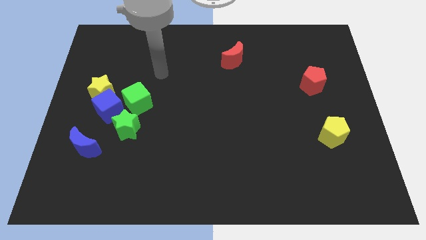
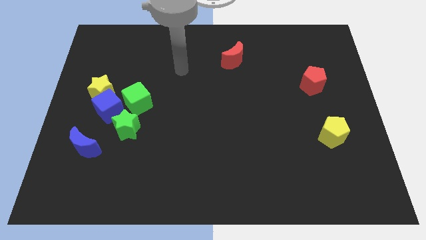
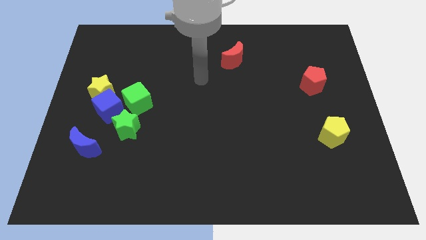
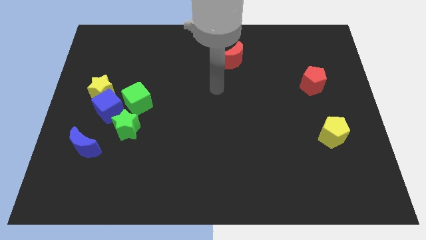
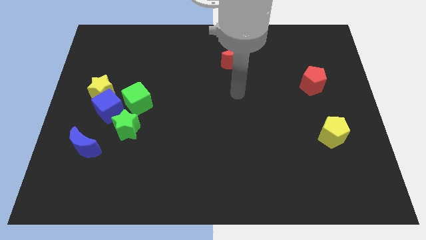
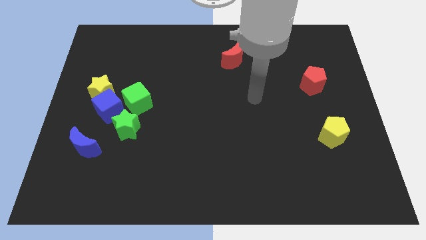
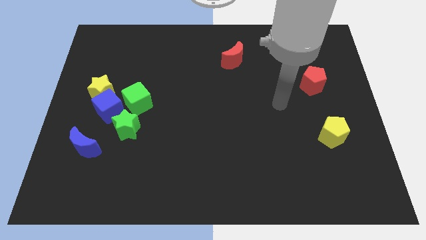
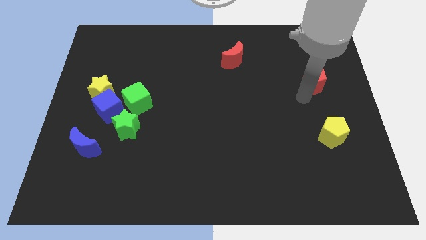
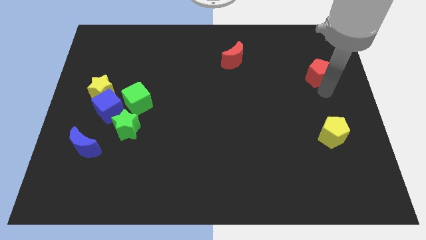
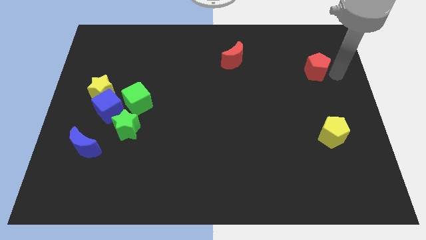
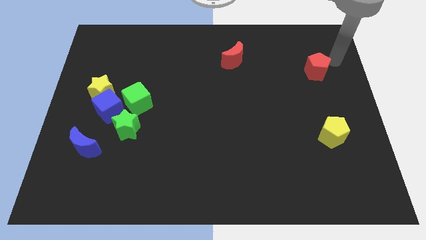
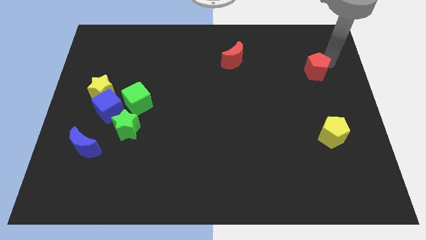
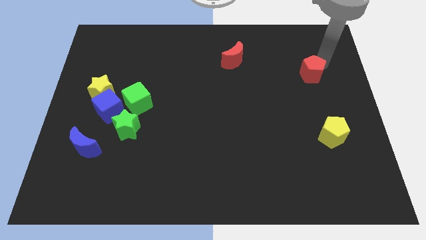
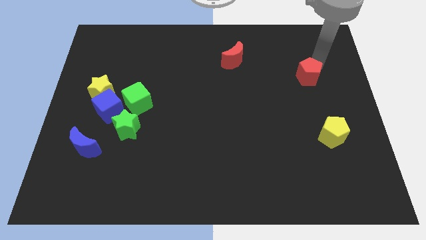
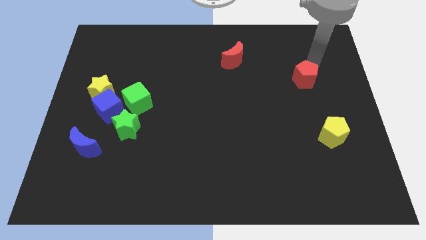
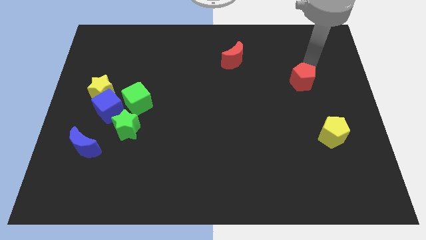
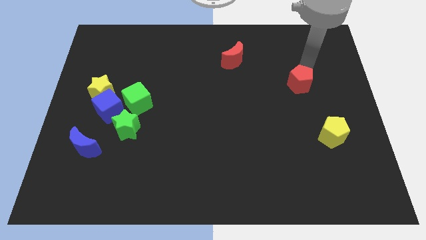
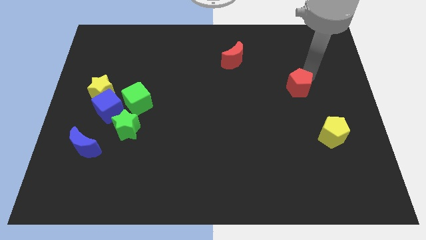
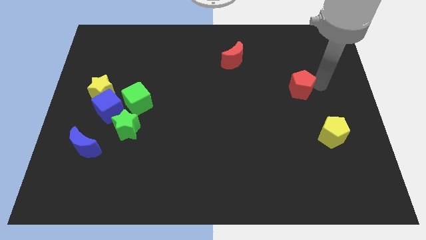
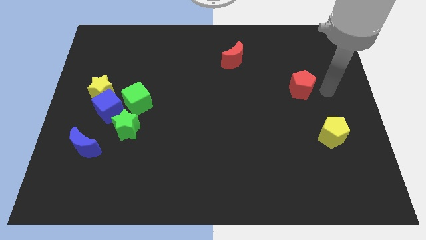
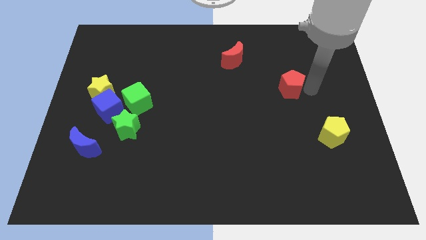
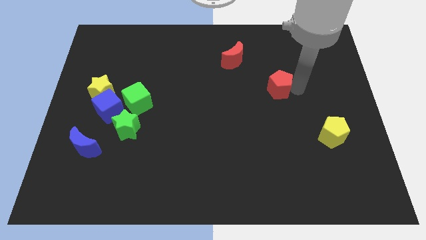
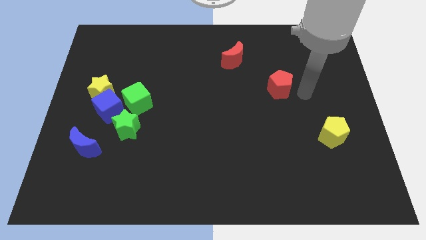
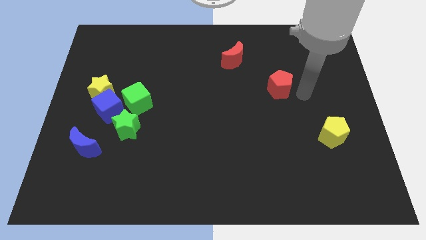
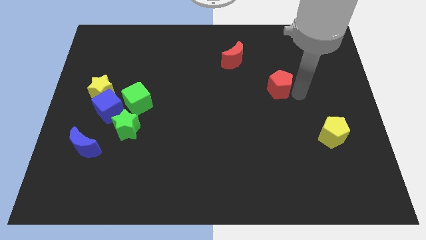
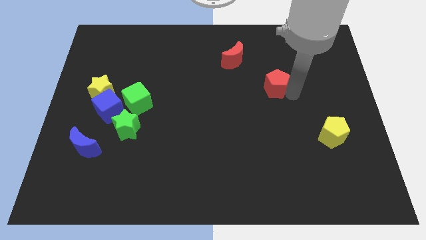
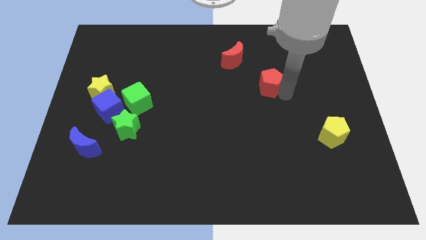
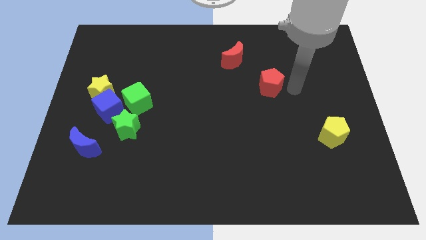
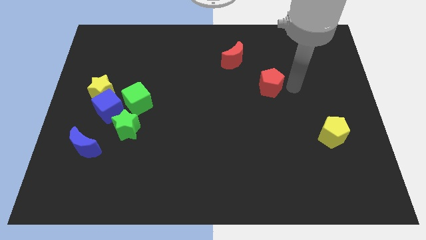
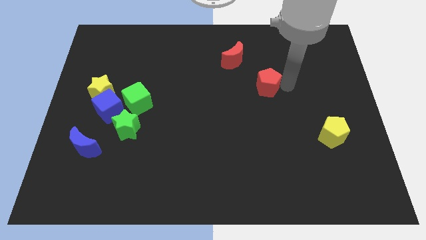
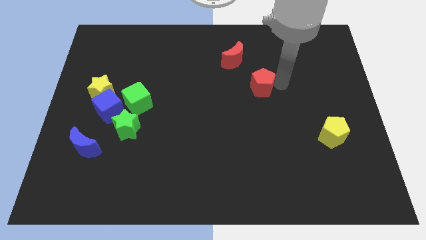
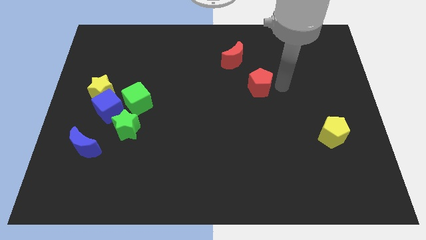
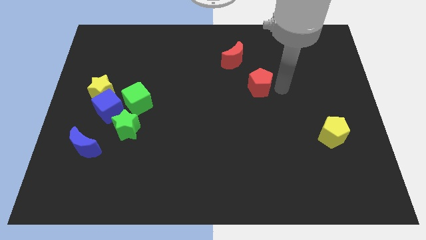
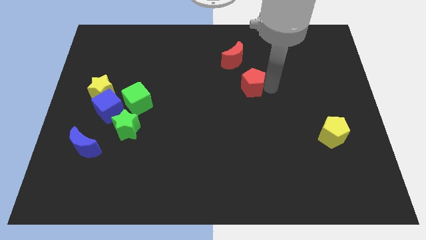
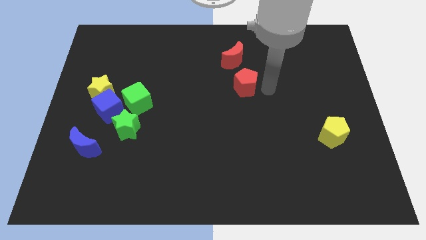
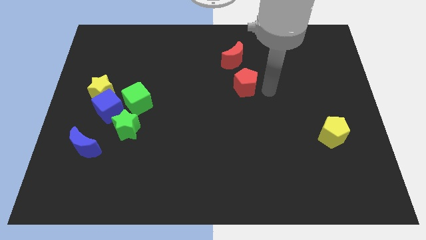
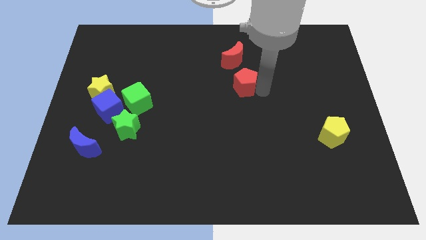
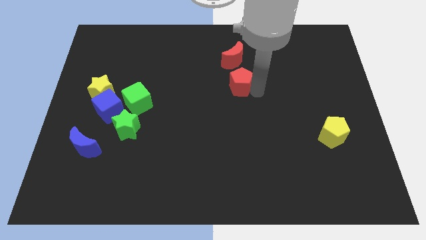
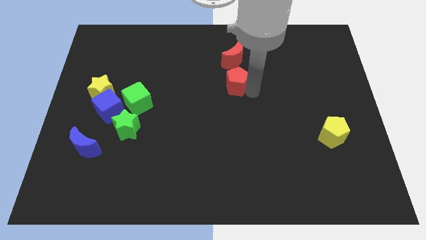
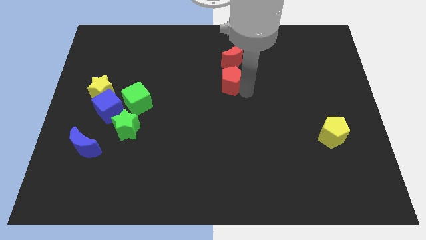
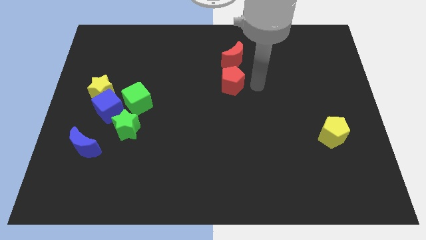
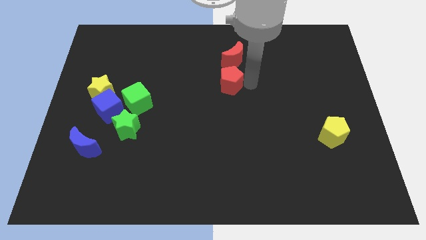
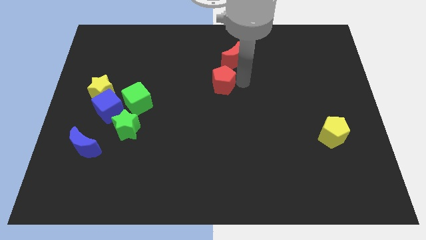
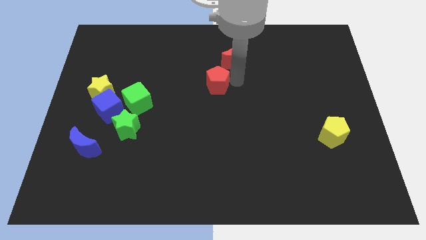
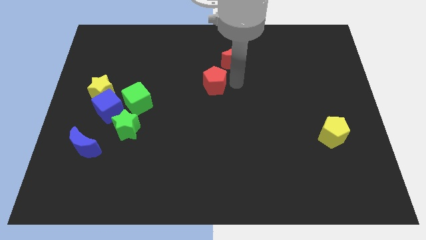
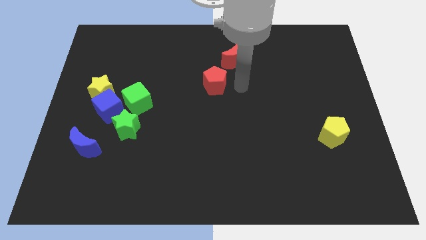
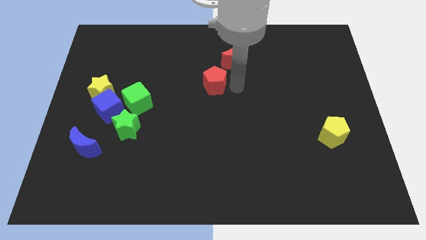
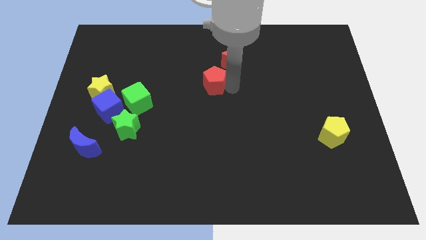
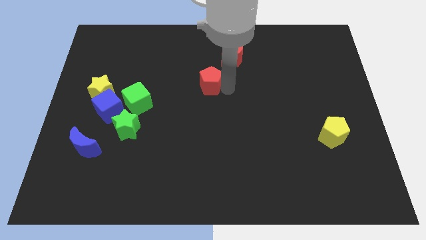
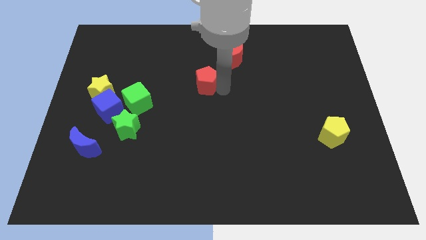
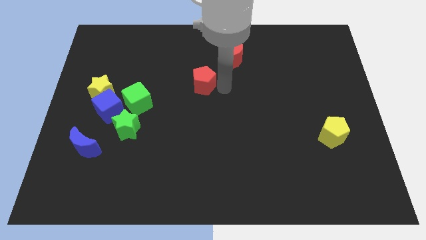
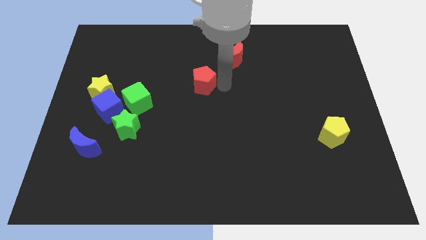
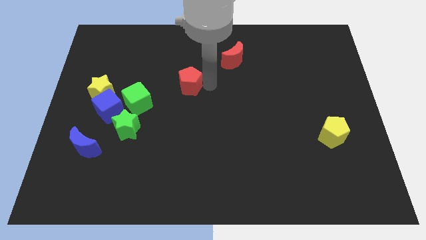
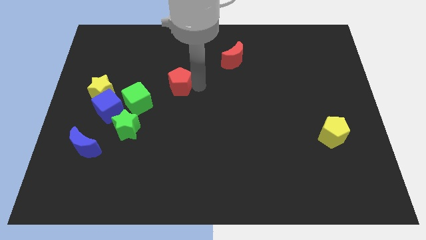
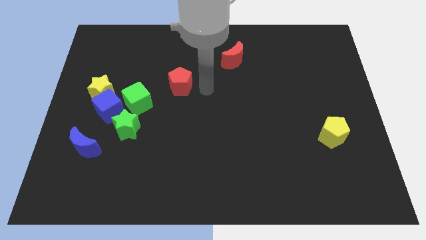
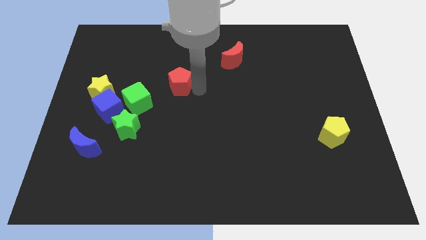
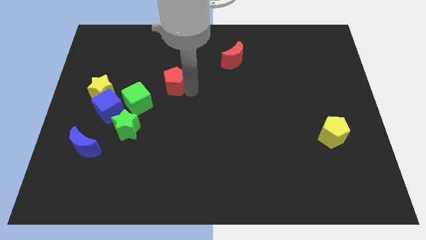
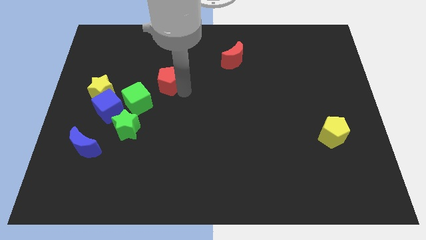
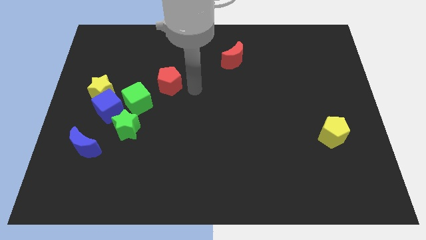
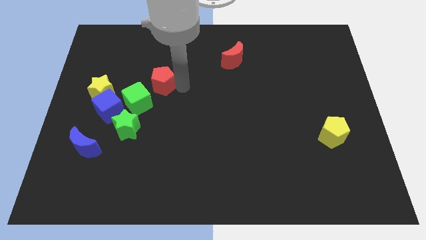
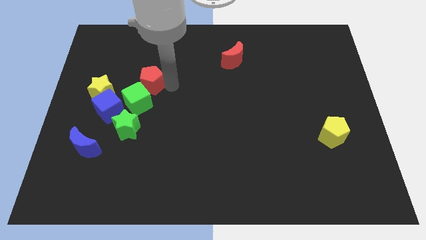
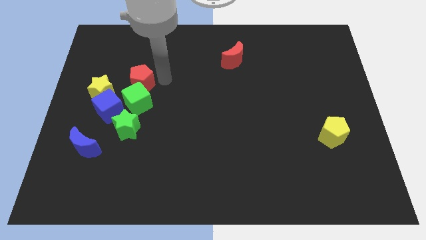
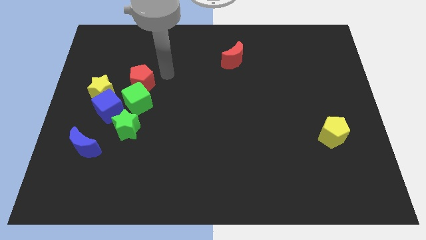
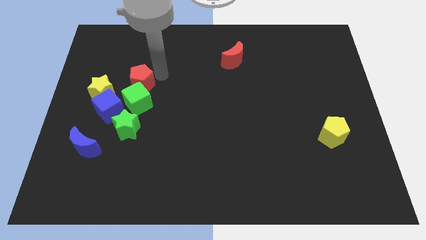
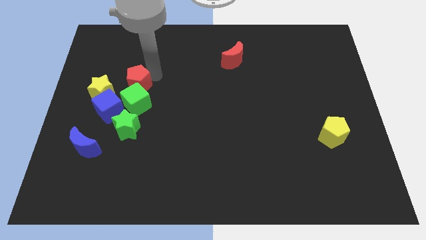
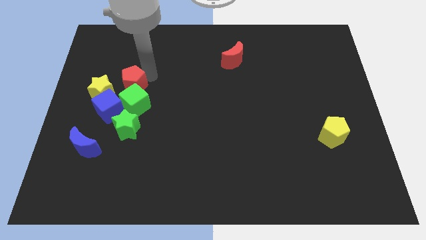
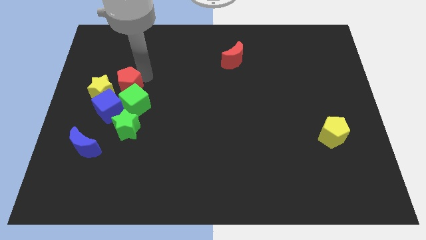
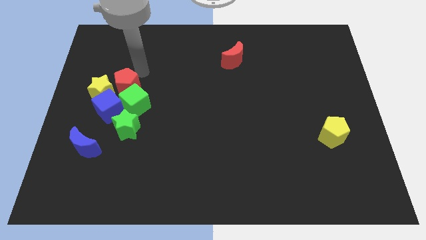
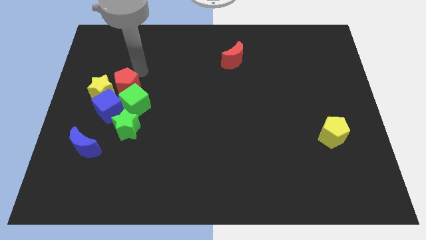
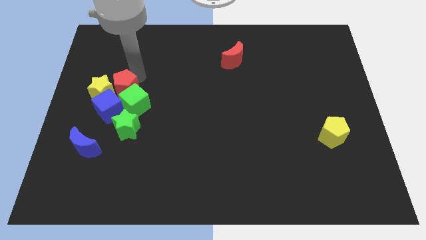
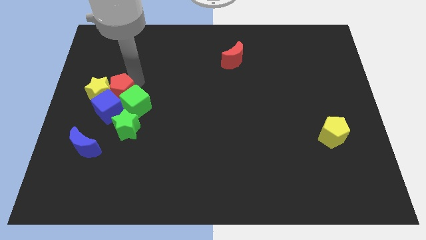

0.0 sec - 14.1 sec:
put the red pentagon towards the blue cube

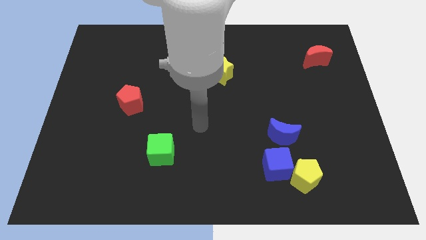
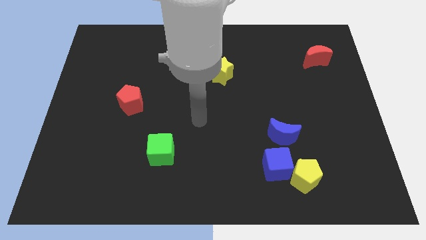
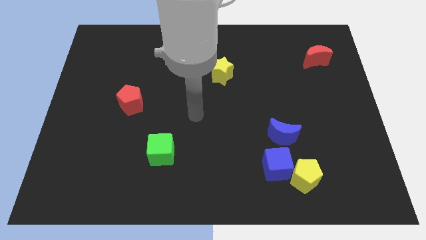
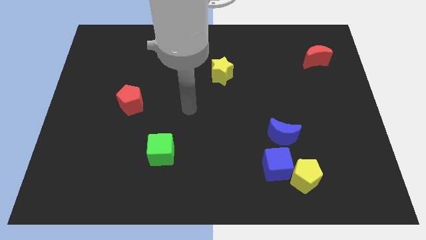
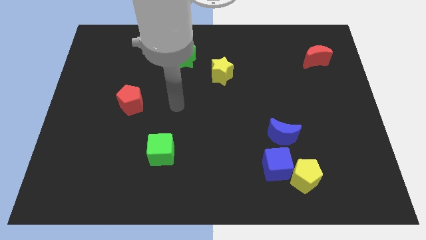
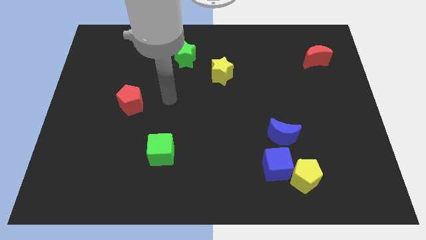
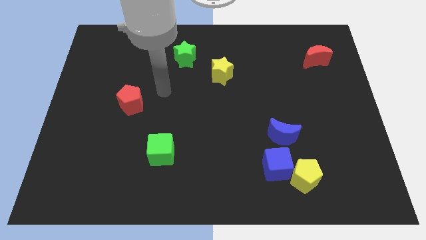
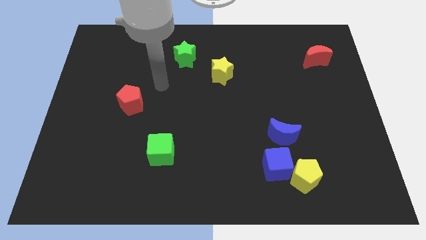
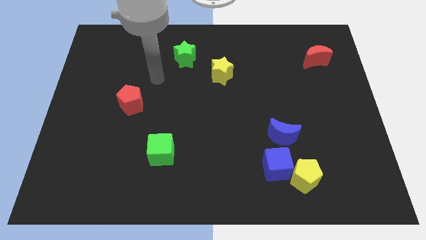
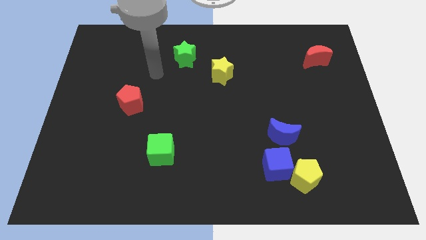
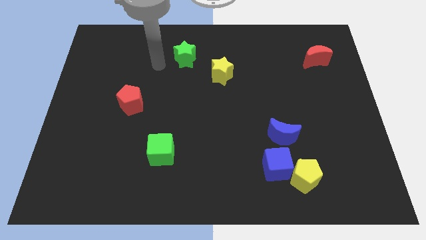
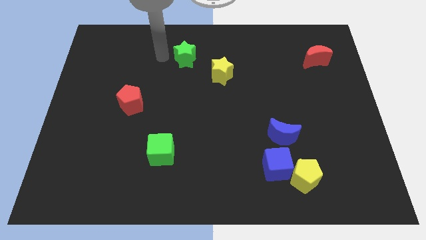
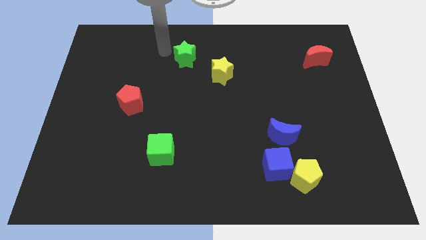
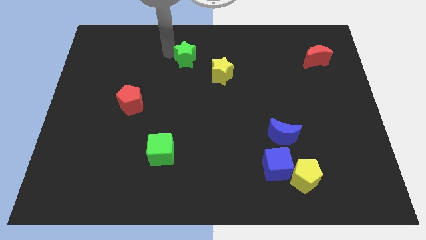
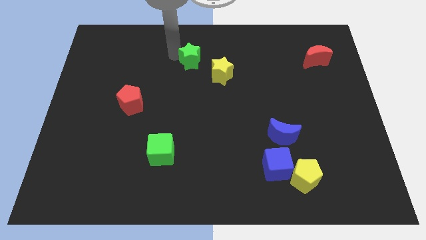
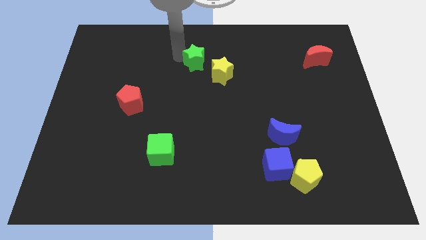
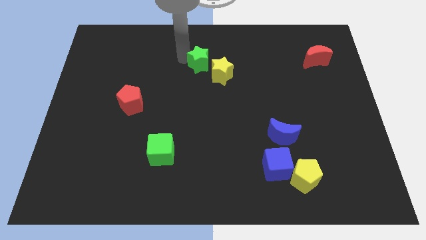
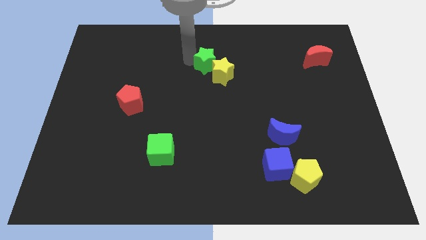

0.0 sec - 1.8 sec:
put the green star to the yellow star
